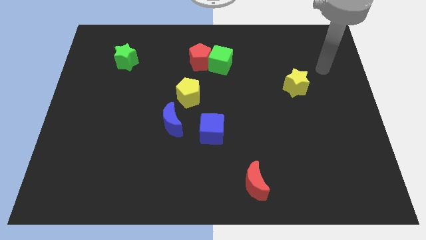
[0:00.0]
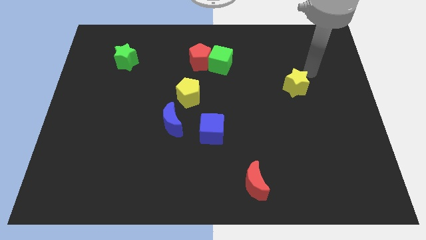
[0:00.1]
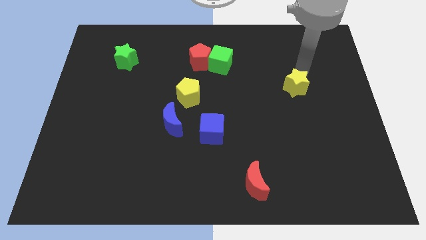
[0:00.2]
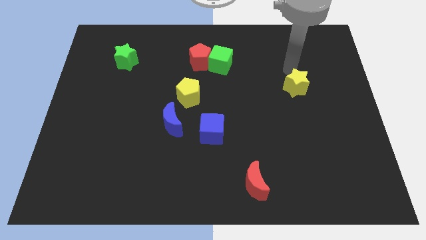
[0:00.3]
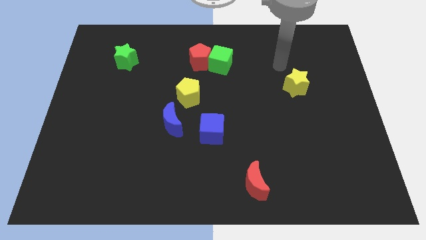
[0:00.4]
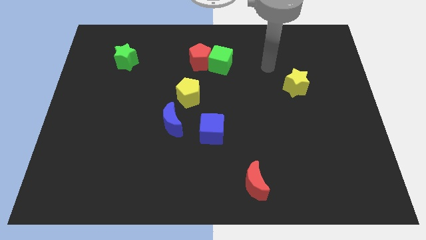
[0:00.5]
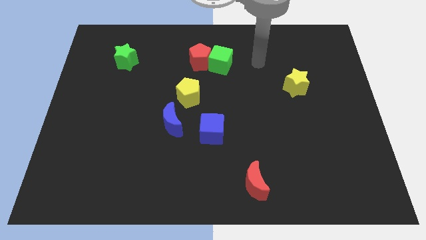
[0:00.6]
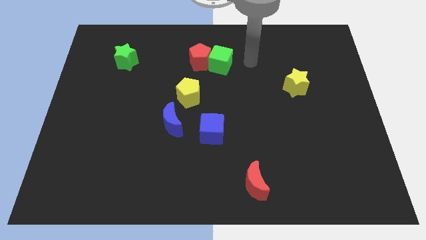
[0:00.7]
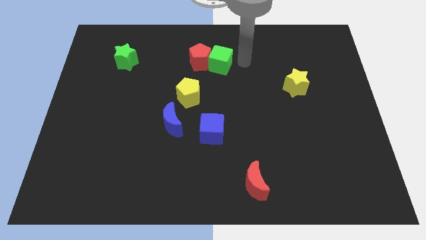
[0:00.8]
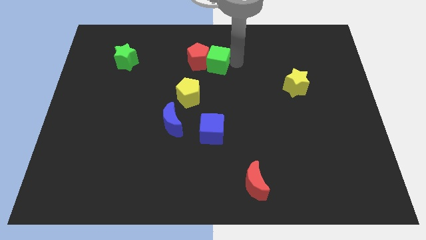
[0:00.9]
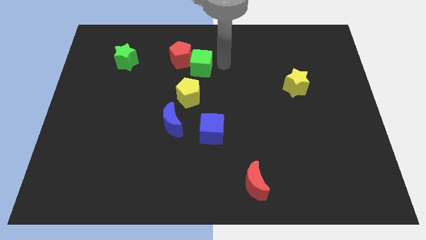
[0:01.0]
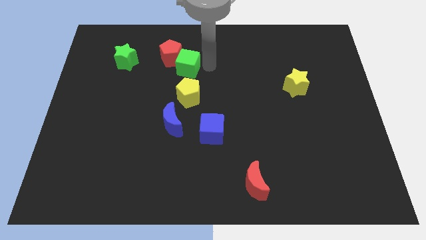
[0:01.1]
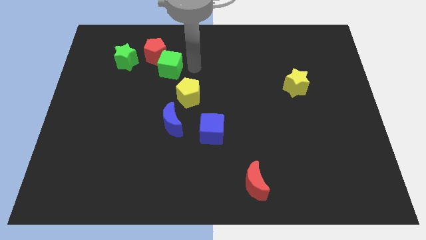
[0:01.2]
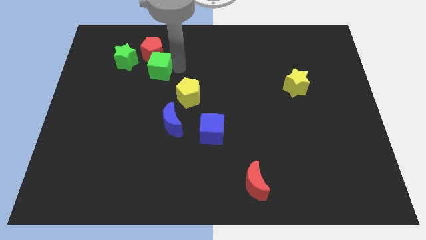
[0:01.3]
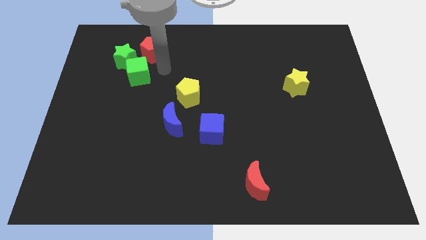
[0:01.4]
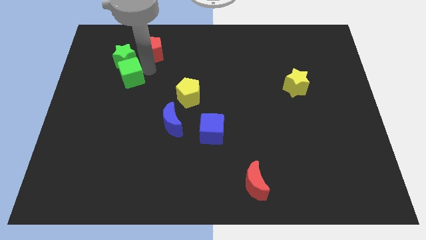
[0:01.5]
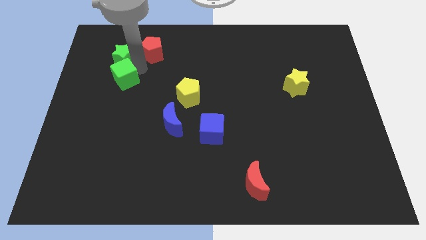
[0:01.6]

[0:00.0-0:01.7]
pull the red pentagon apart from the green cube

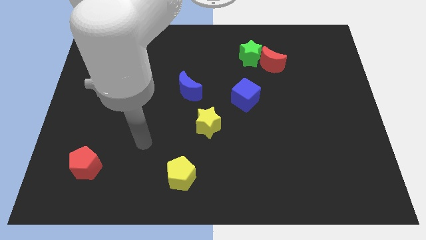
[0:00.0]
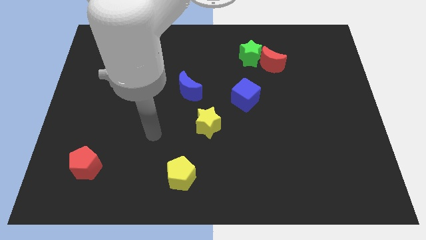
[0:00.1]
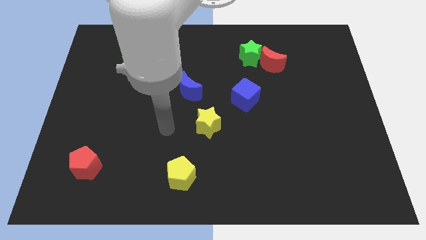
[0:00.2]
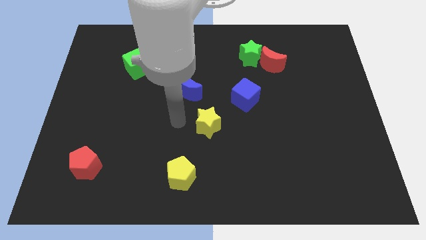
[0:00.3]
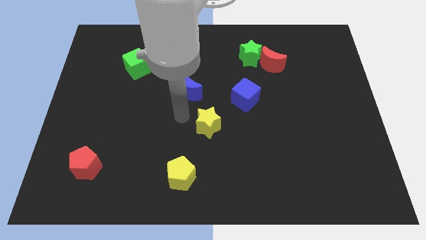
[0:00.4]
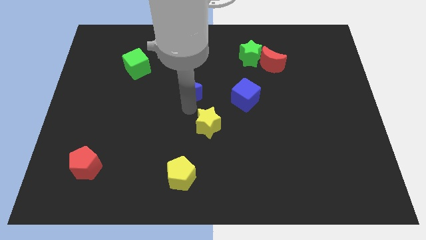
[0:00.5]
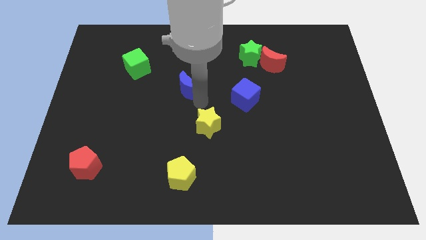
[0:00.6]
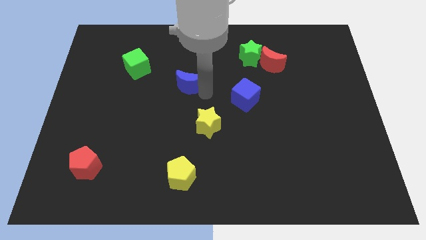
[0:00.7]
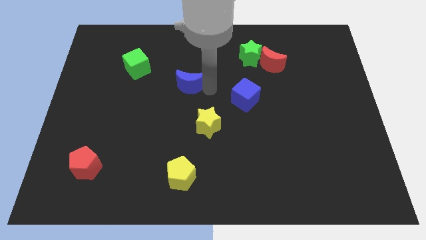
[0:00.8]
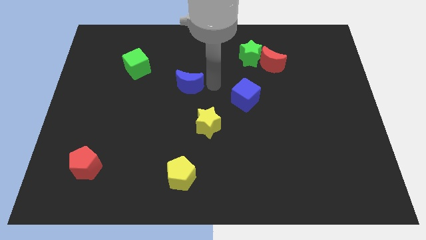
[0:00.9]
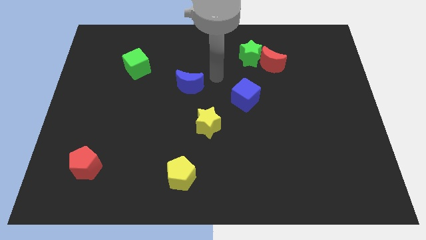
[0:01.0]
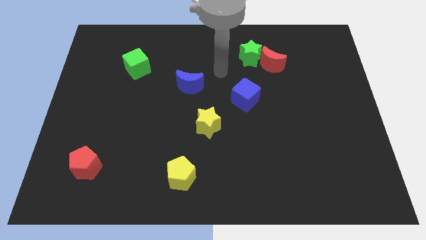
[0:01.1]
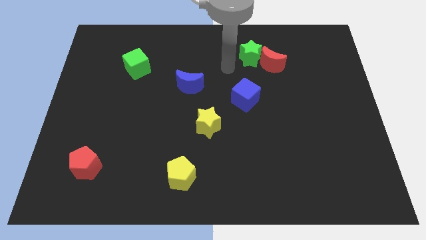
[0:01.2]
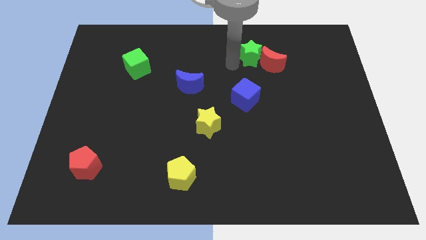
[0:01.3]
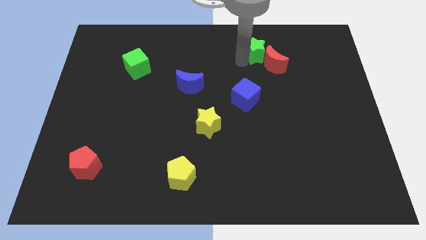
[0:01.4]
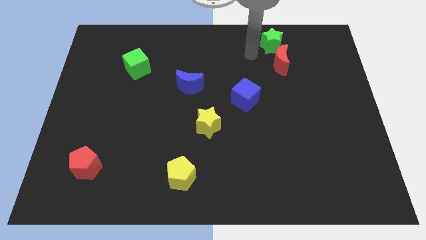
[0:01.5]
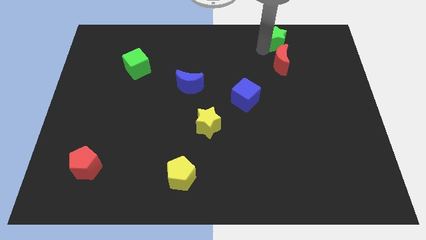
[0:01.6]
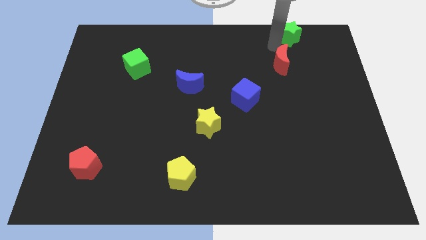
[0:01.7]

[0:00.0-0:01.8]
pull the red moon apart from the green star

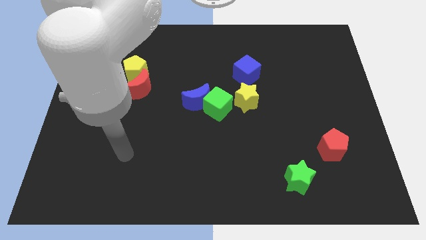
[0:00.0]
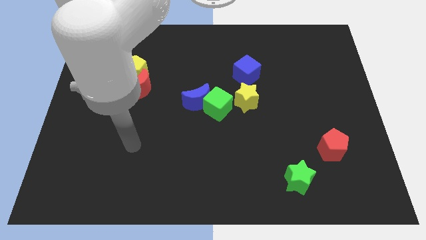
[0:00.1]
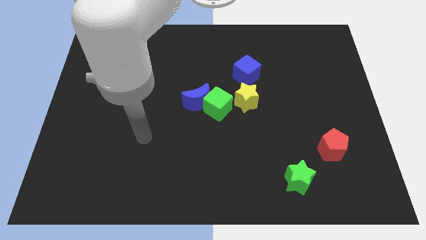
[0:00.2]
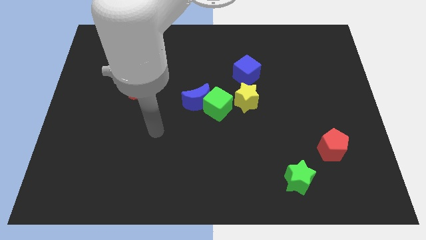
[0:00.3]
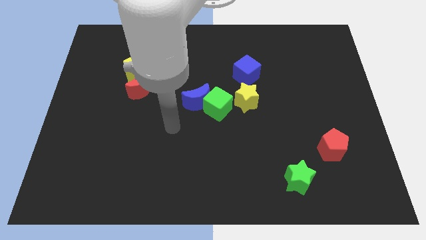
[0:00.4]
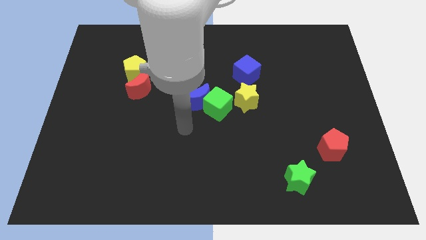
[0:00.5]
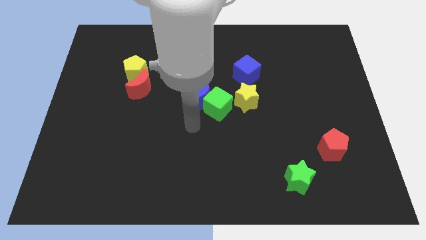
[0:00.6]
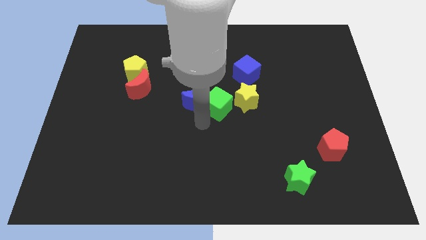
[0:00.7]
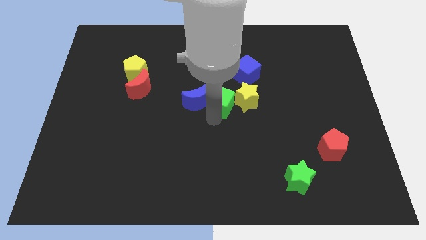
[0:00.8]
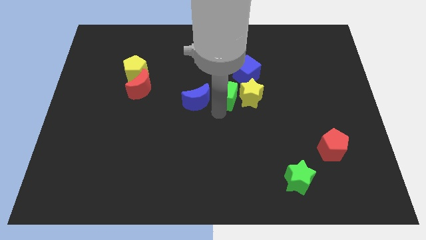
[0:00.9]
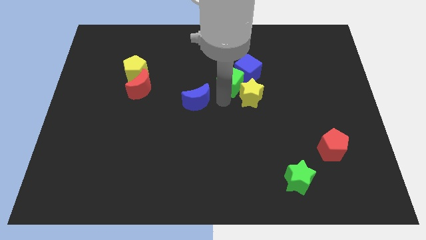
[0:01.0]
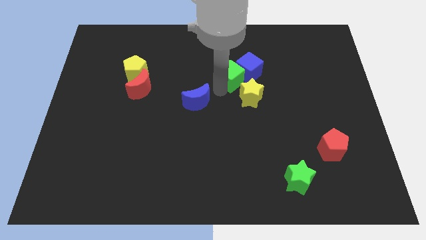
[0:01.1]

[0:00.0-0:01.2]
separate the blue moon from the green cube

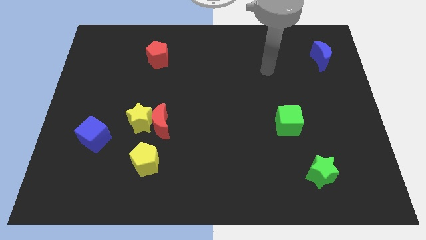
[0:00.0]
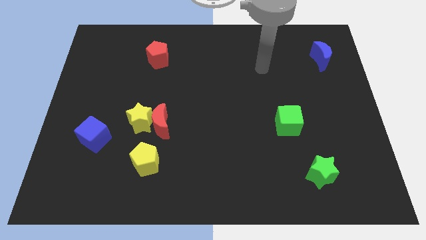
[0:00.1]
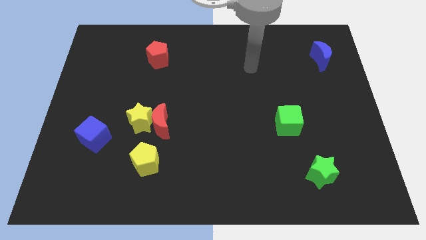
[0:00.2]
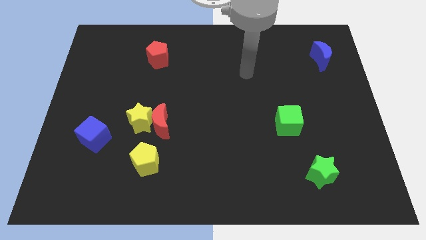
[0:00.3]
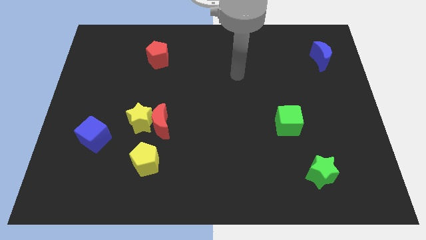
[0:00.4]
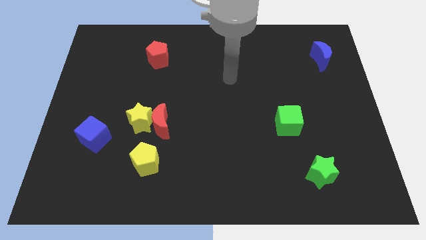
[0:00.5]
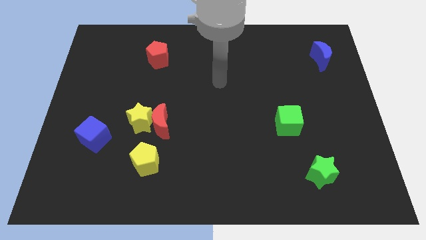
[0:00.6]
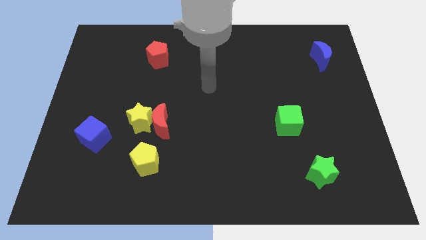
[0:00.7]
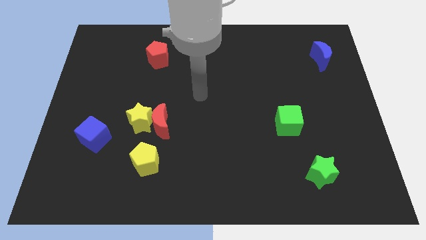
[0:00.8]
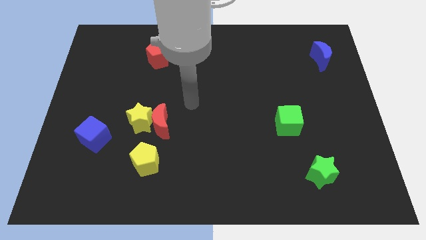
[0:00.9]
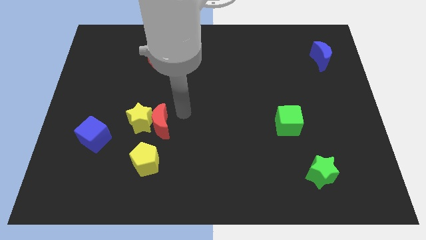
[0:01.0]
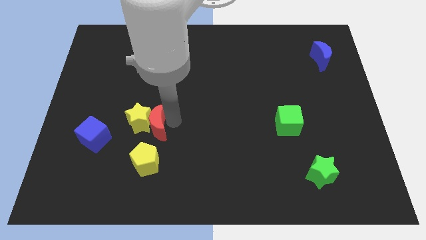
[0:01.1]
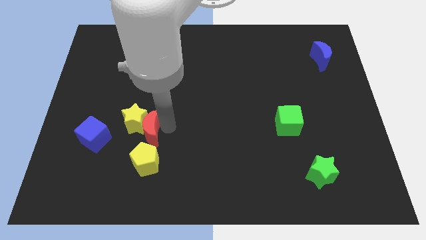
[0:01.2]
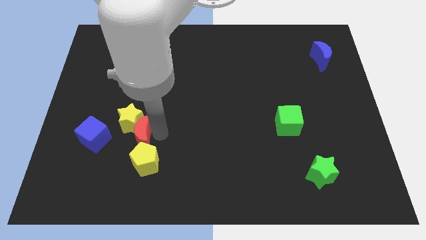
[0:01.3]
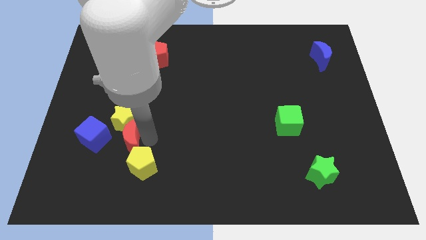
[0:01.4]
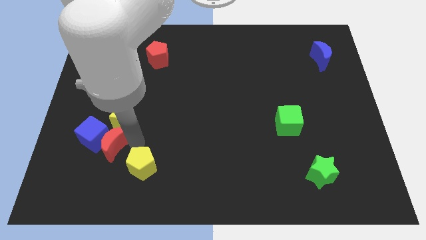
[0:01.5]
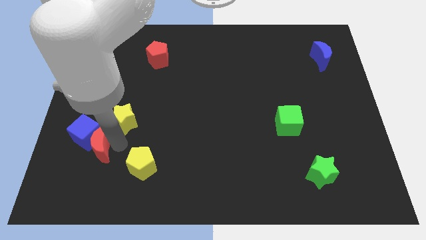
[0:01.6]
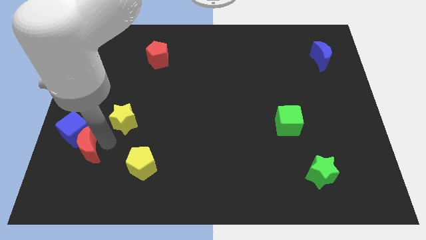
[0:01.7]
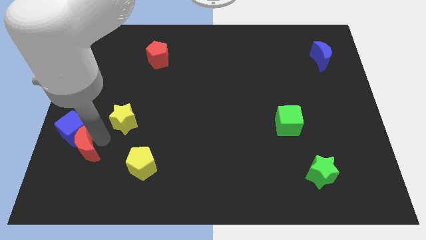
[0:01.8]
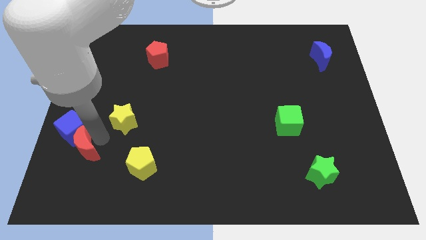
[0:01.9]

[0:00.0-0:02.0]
move the yellow star away from the red moon

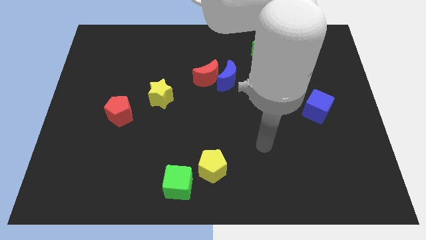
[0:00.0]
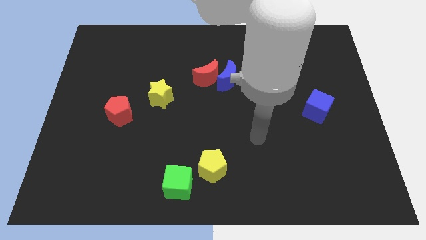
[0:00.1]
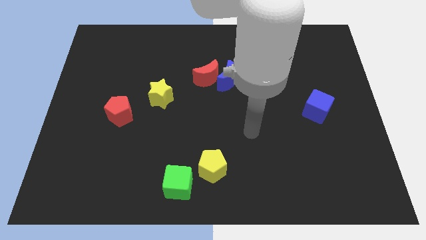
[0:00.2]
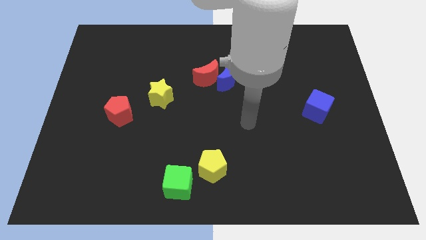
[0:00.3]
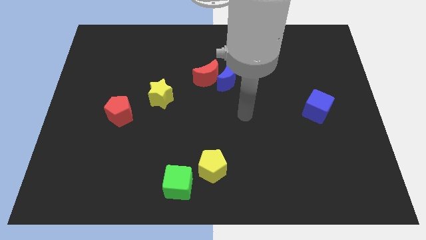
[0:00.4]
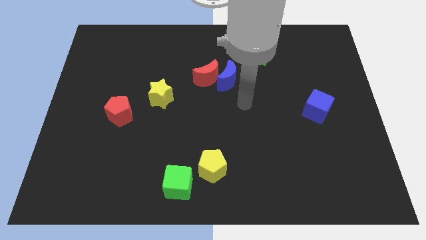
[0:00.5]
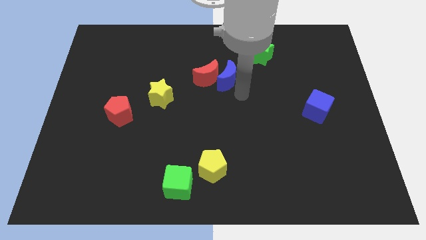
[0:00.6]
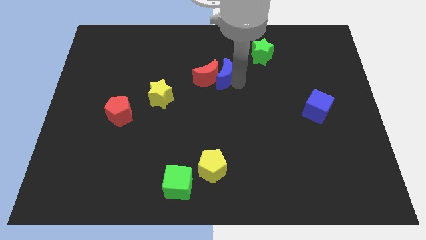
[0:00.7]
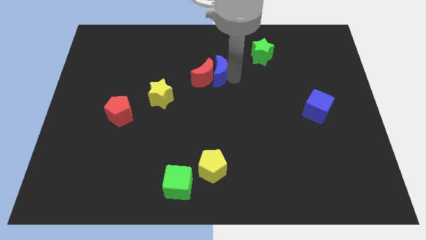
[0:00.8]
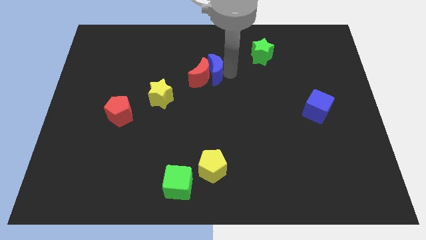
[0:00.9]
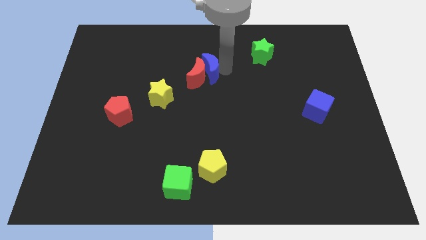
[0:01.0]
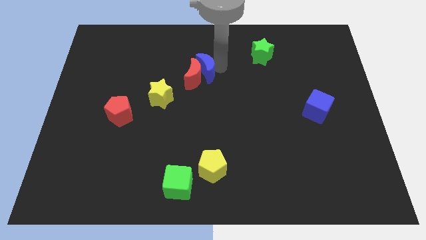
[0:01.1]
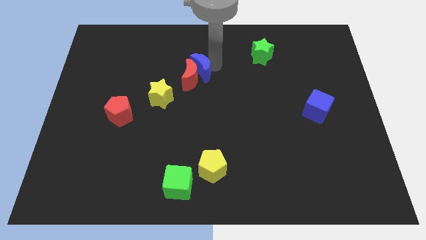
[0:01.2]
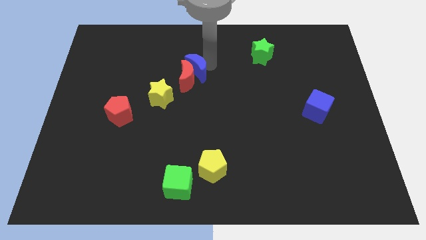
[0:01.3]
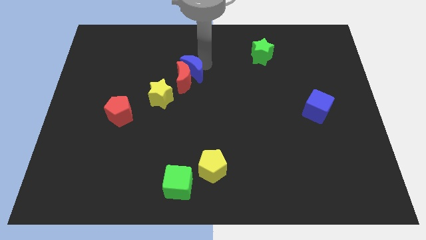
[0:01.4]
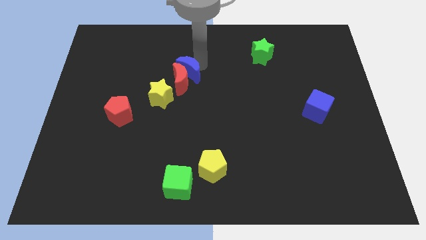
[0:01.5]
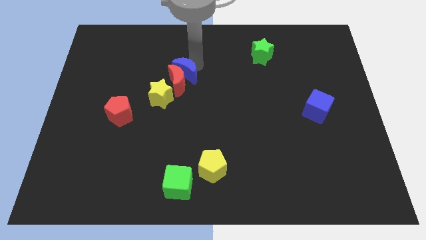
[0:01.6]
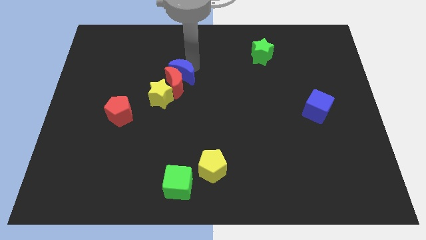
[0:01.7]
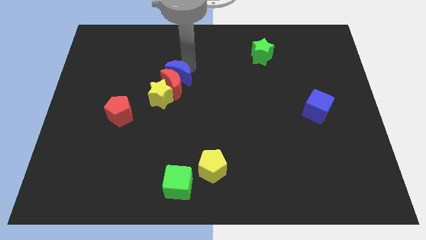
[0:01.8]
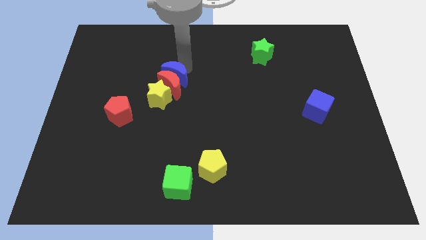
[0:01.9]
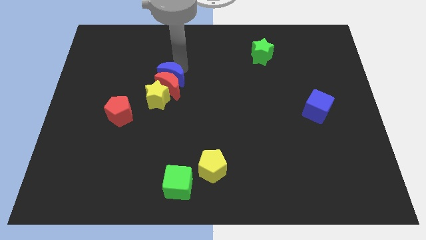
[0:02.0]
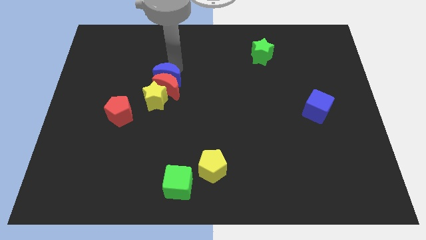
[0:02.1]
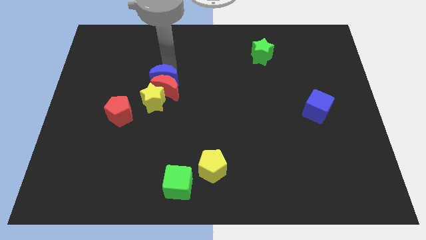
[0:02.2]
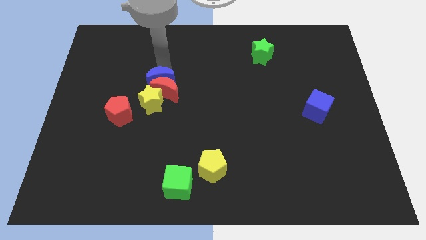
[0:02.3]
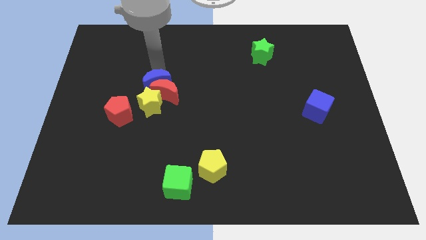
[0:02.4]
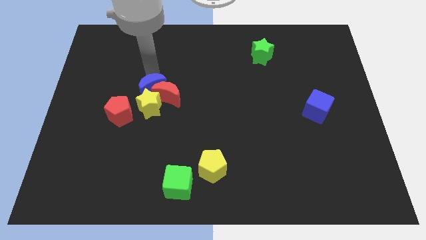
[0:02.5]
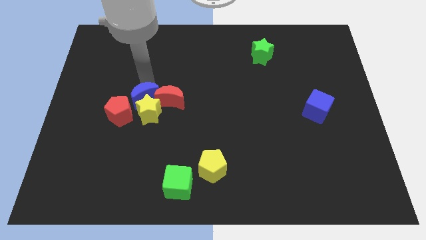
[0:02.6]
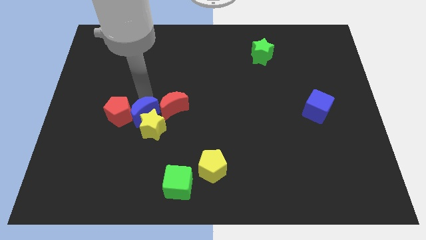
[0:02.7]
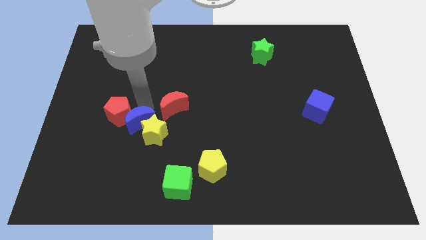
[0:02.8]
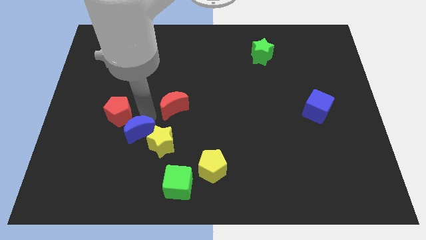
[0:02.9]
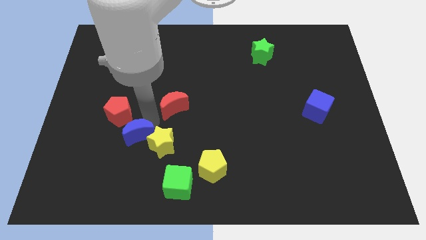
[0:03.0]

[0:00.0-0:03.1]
separate the red moon from the blue moon
